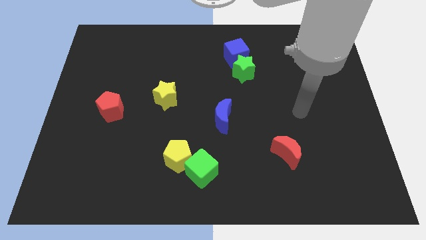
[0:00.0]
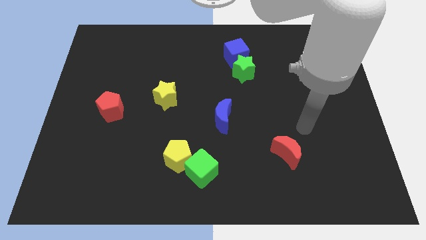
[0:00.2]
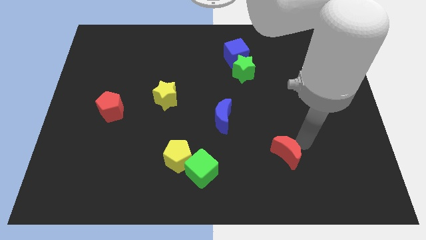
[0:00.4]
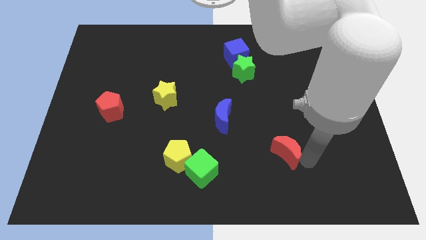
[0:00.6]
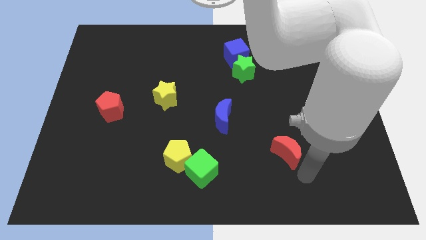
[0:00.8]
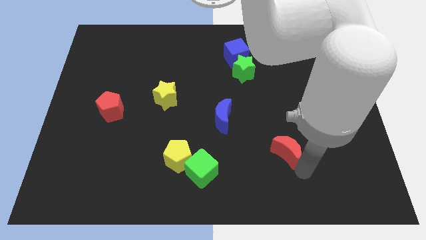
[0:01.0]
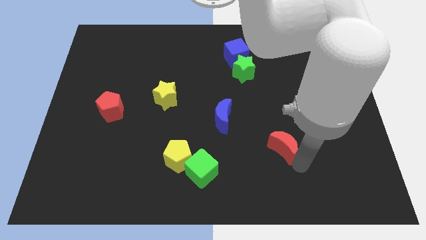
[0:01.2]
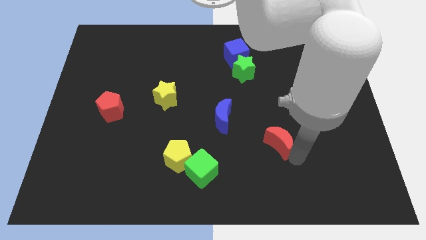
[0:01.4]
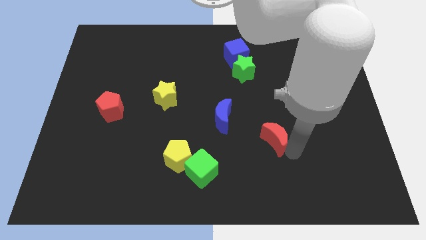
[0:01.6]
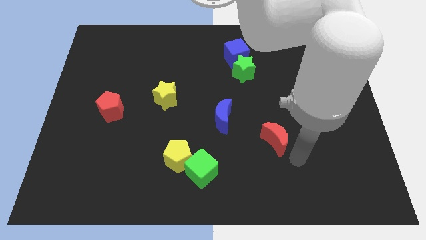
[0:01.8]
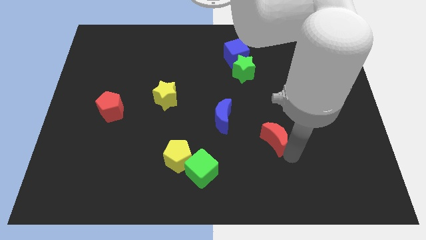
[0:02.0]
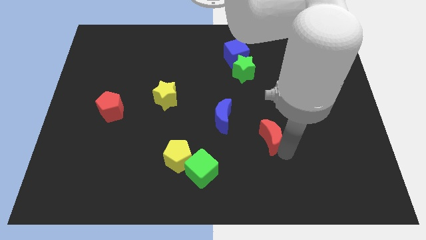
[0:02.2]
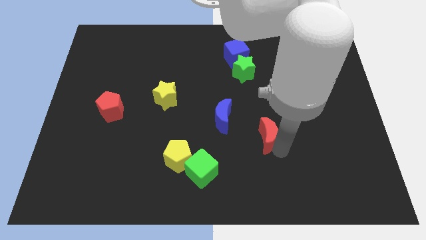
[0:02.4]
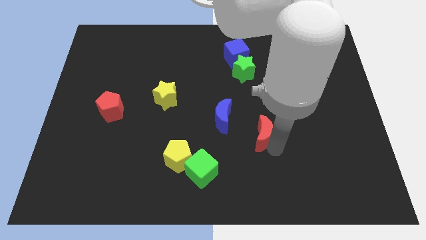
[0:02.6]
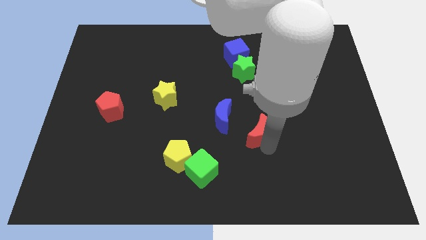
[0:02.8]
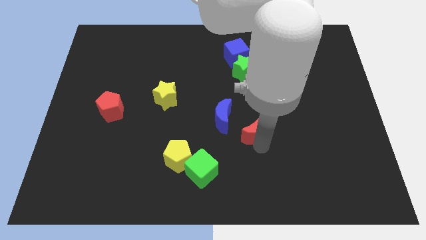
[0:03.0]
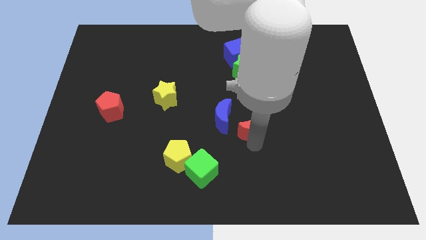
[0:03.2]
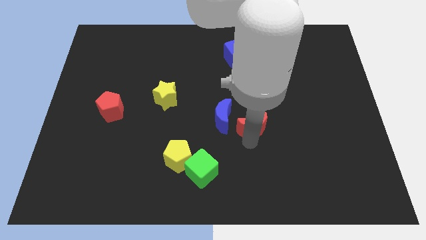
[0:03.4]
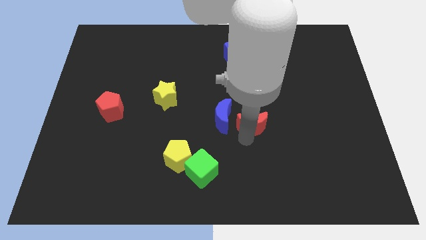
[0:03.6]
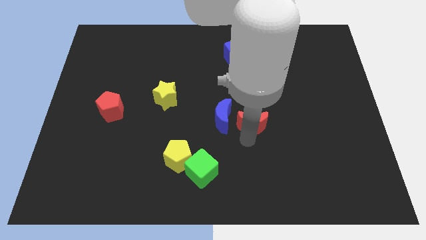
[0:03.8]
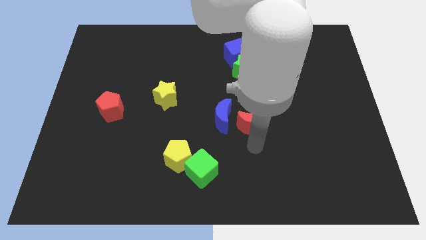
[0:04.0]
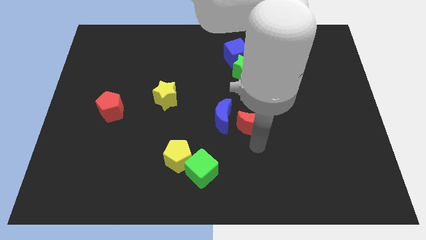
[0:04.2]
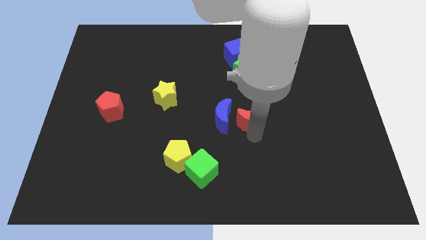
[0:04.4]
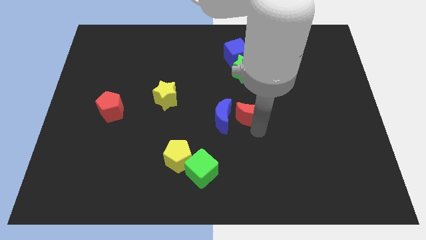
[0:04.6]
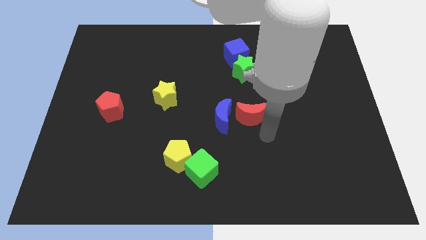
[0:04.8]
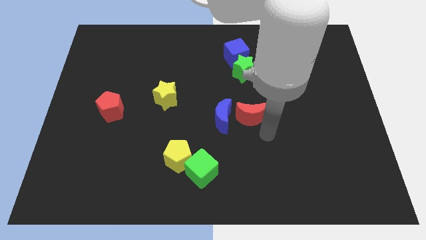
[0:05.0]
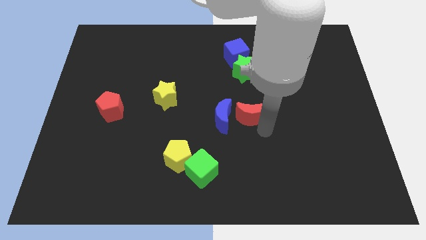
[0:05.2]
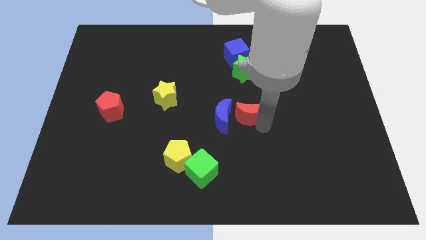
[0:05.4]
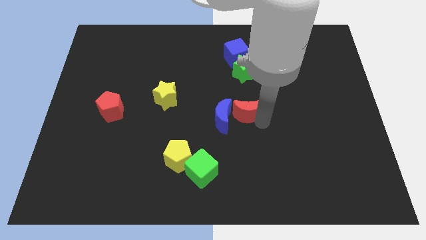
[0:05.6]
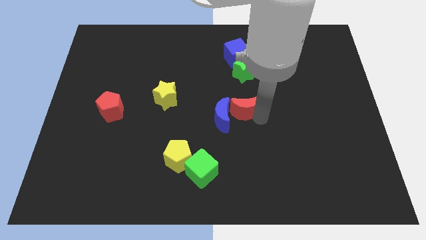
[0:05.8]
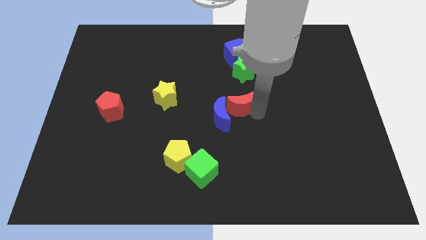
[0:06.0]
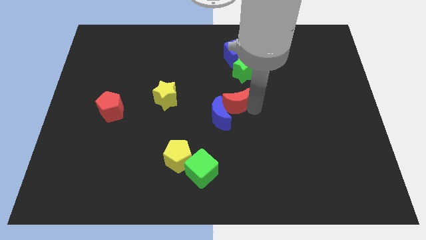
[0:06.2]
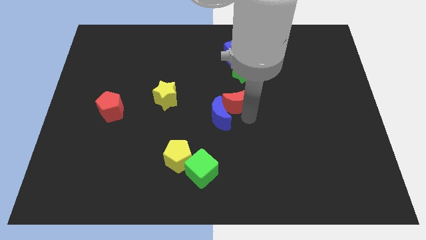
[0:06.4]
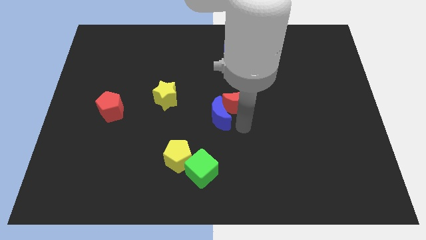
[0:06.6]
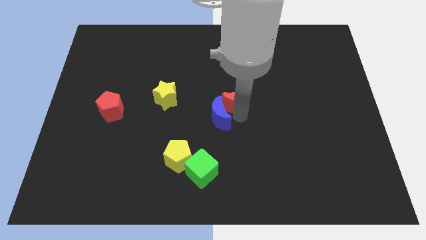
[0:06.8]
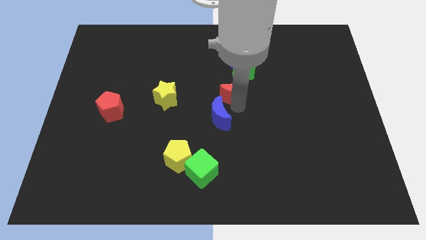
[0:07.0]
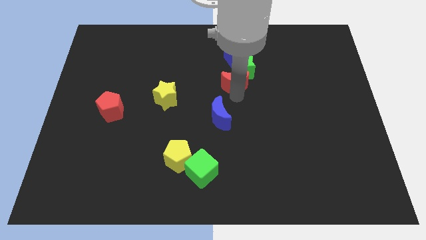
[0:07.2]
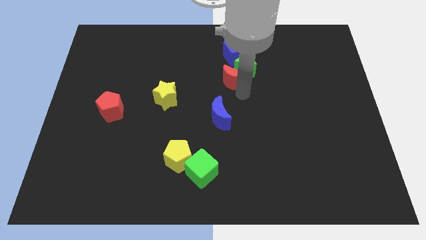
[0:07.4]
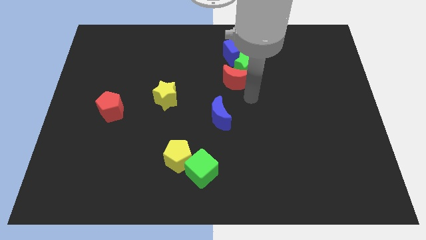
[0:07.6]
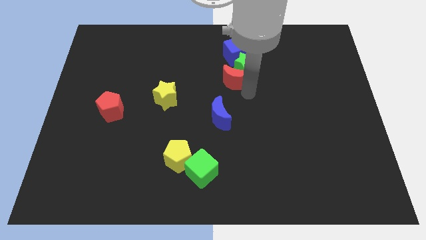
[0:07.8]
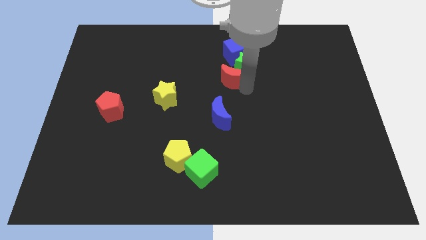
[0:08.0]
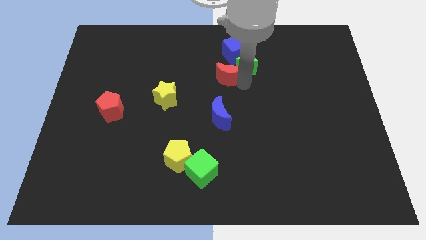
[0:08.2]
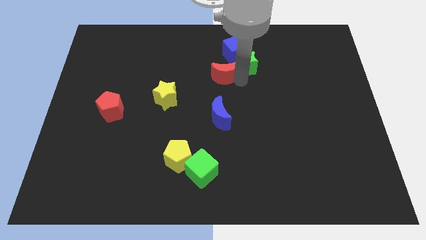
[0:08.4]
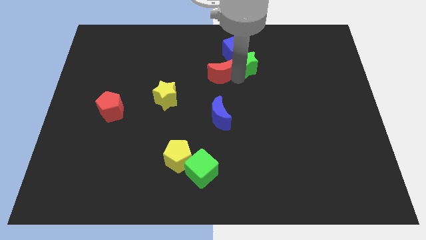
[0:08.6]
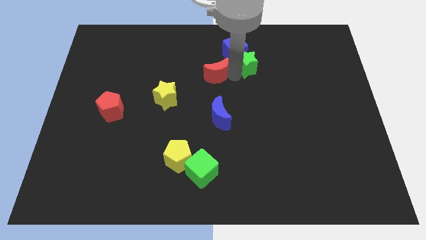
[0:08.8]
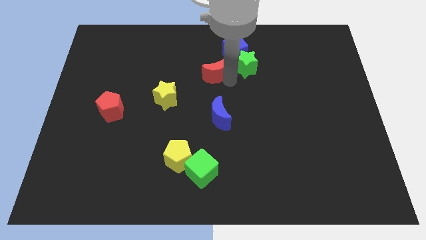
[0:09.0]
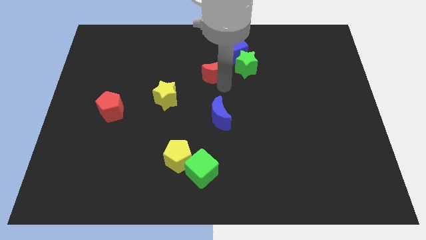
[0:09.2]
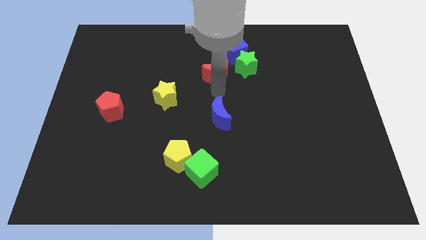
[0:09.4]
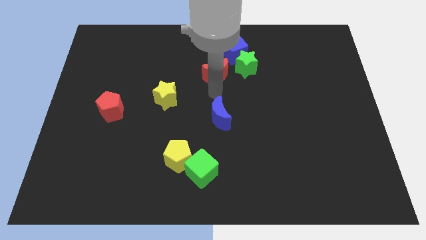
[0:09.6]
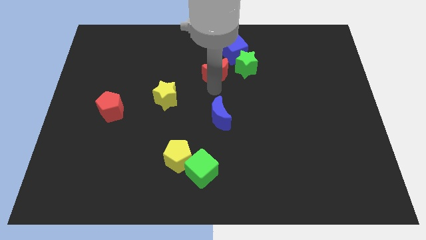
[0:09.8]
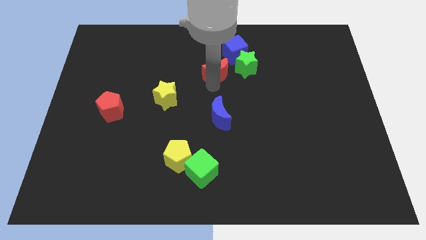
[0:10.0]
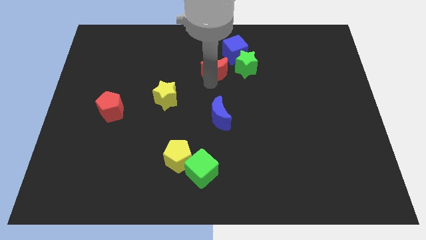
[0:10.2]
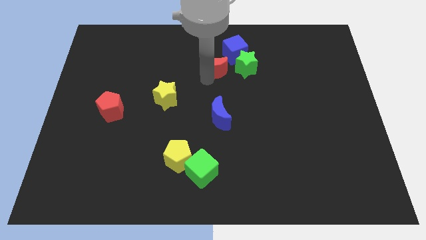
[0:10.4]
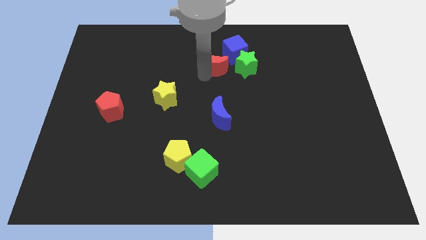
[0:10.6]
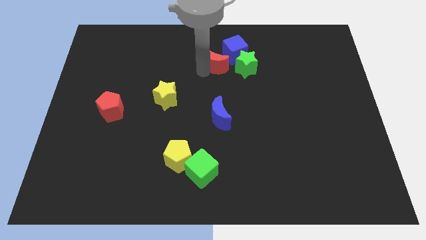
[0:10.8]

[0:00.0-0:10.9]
move the red moon diagonally up and to the left of the green star

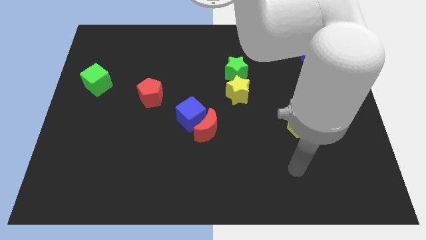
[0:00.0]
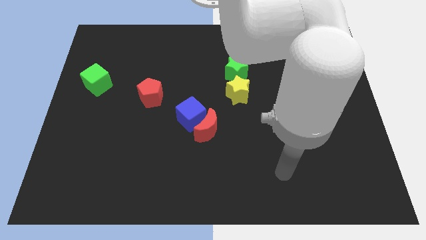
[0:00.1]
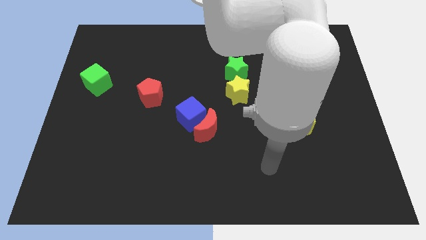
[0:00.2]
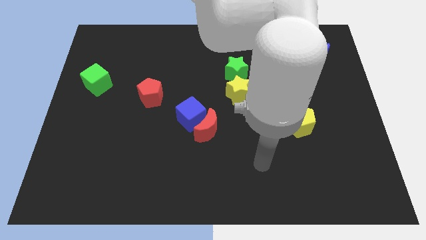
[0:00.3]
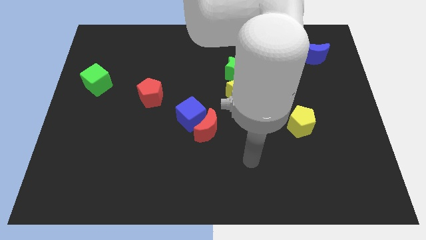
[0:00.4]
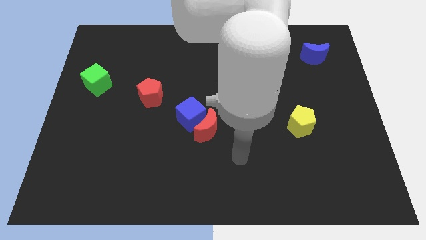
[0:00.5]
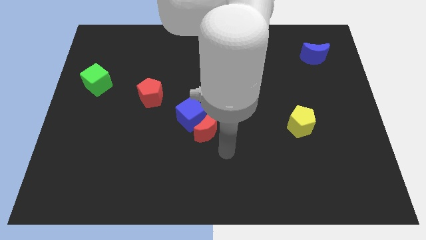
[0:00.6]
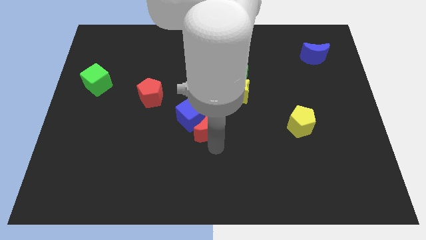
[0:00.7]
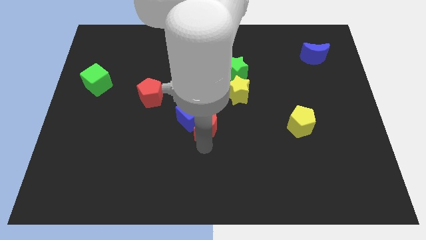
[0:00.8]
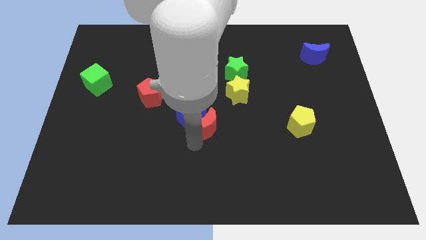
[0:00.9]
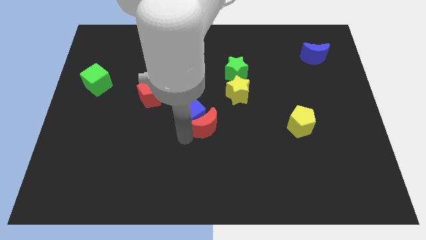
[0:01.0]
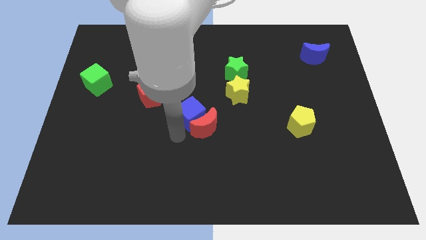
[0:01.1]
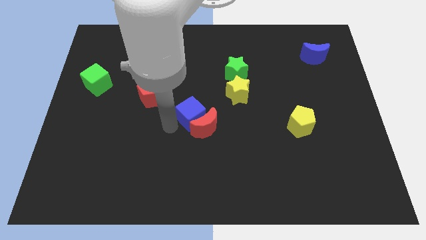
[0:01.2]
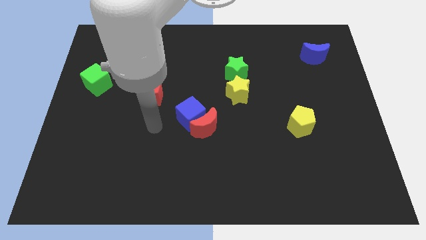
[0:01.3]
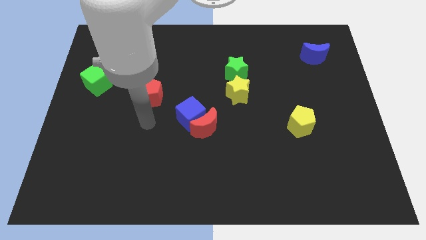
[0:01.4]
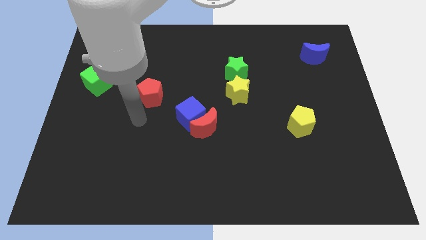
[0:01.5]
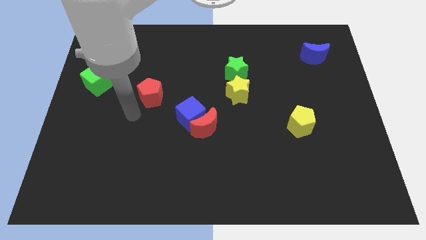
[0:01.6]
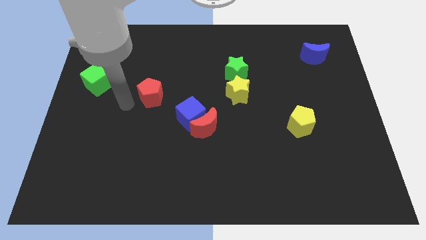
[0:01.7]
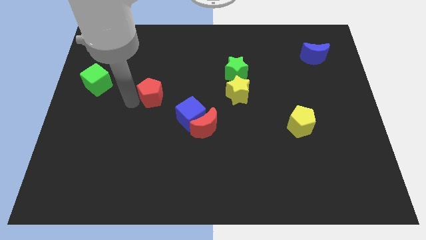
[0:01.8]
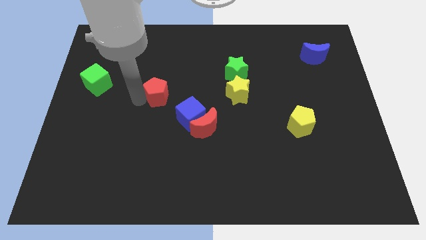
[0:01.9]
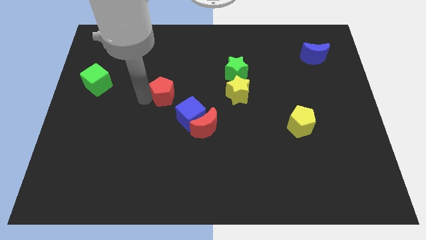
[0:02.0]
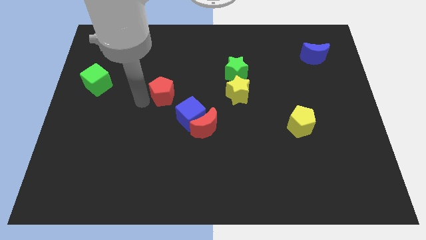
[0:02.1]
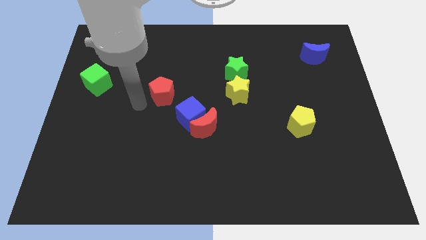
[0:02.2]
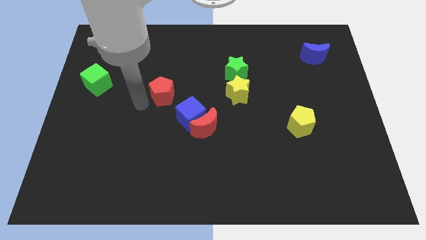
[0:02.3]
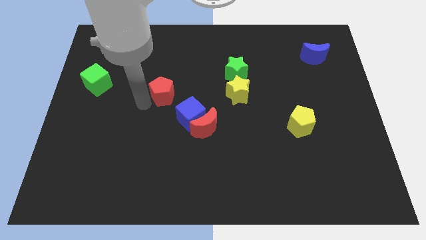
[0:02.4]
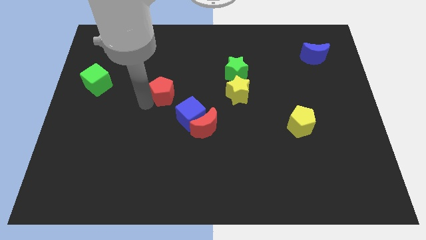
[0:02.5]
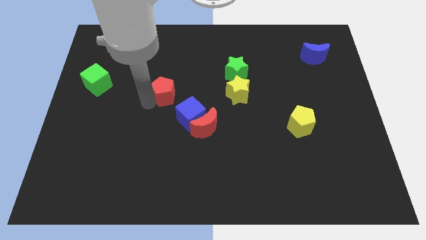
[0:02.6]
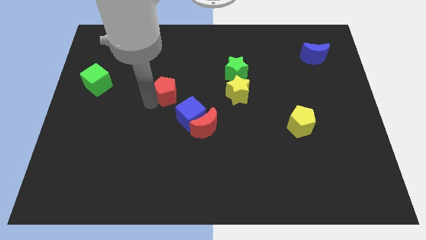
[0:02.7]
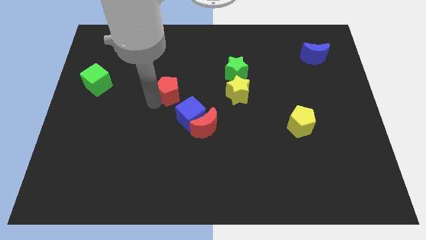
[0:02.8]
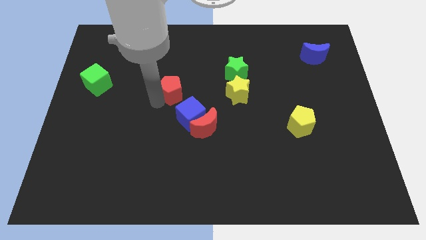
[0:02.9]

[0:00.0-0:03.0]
slide the red pentagon above the blue cube
